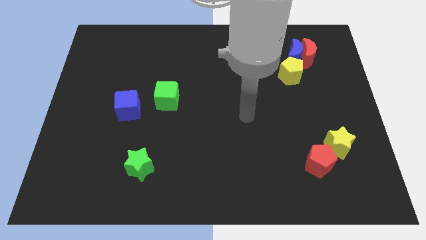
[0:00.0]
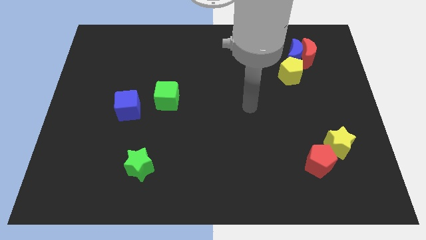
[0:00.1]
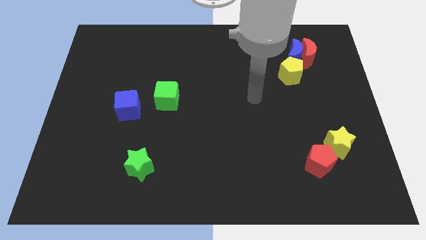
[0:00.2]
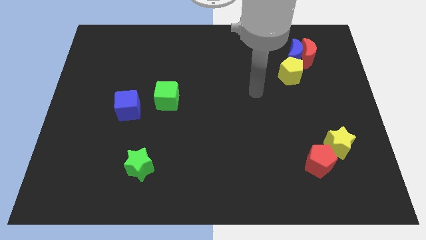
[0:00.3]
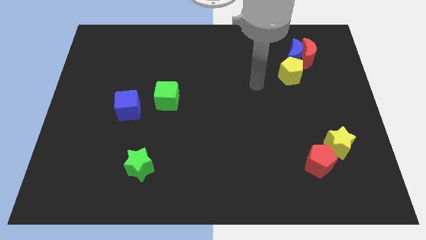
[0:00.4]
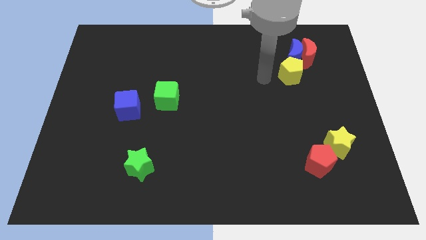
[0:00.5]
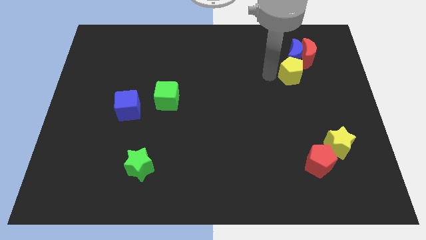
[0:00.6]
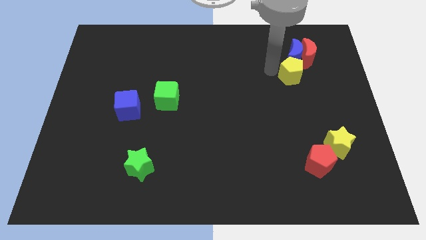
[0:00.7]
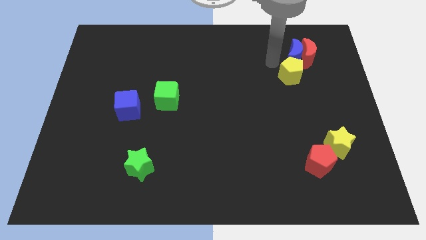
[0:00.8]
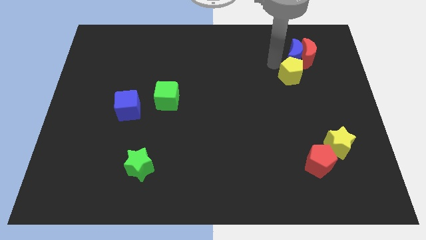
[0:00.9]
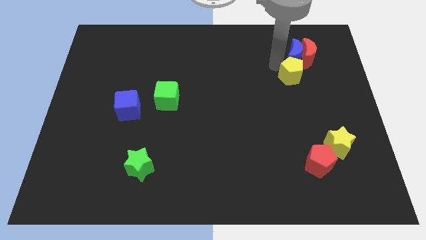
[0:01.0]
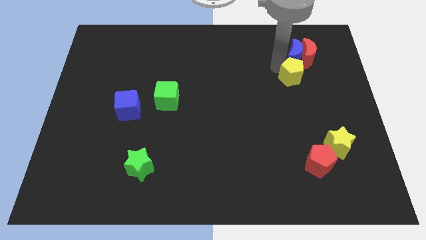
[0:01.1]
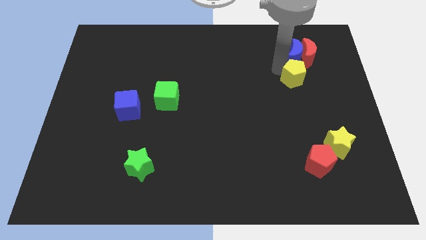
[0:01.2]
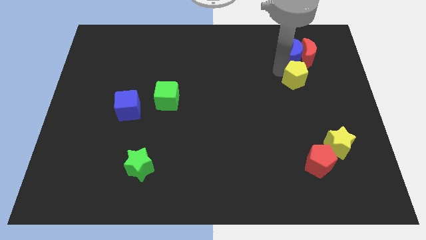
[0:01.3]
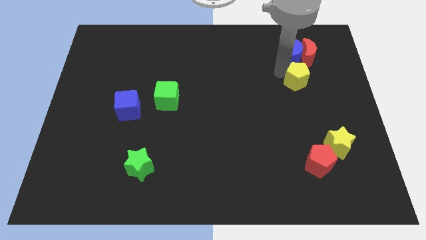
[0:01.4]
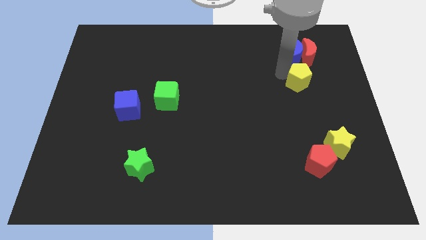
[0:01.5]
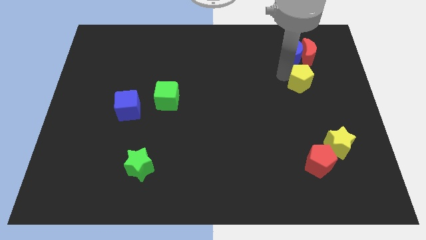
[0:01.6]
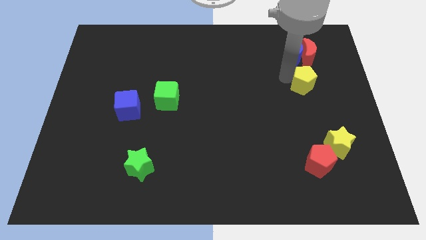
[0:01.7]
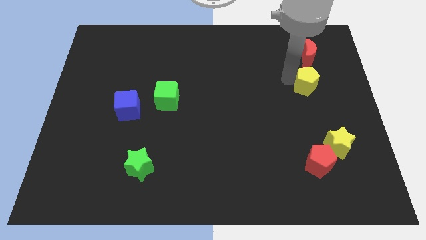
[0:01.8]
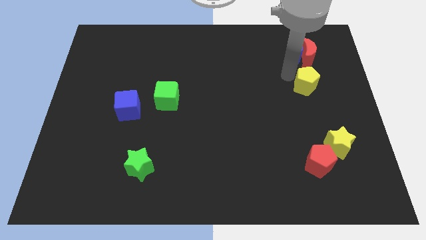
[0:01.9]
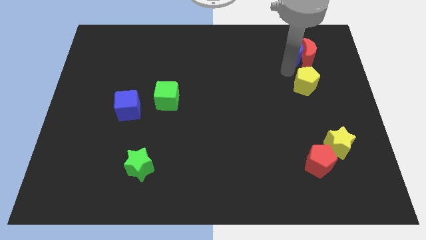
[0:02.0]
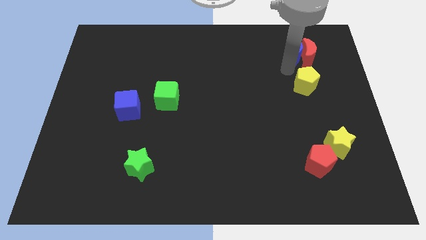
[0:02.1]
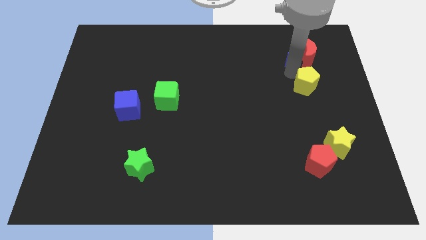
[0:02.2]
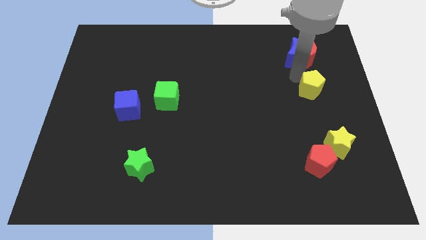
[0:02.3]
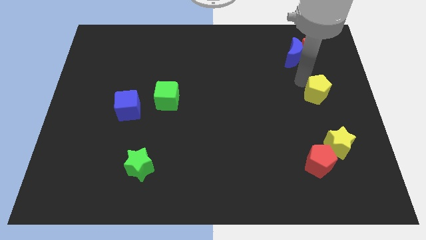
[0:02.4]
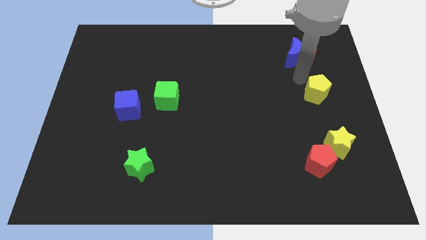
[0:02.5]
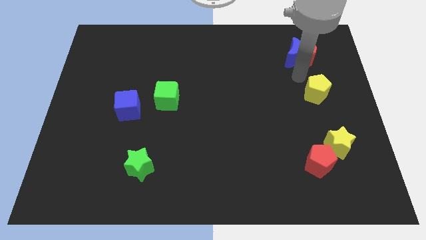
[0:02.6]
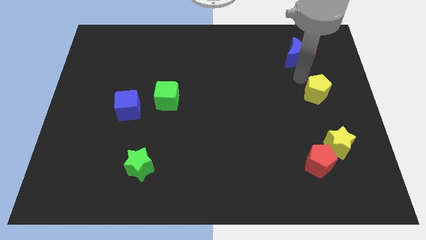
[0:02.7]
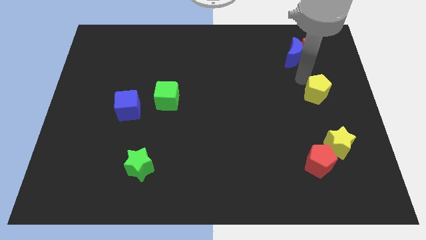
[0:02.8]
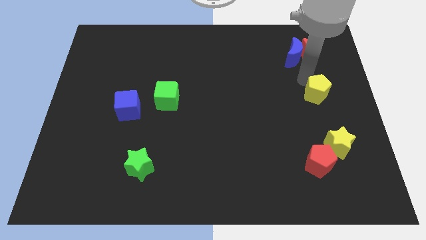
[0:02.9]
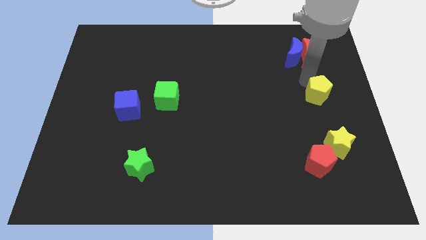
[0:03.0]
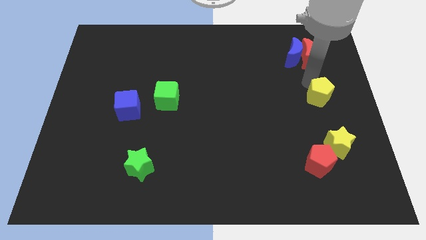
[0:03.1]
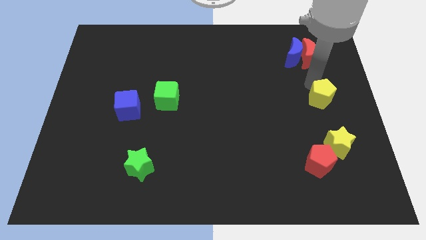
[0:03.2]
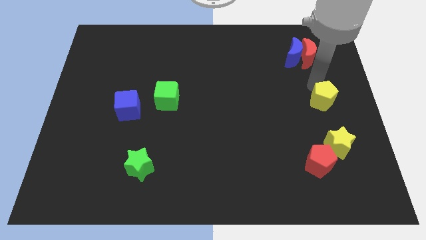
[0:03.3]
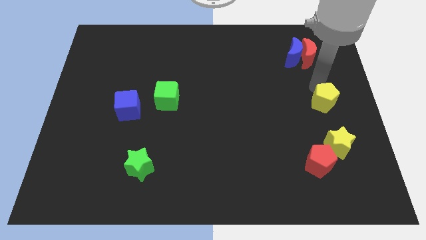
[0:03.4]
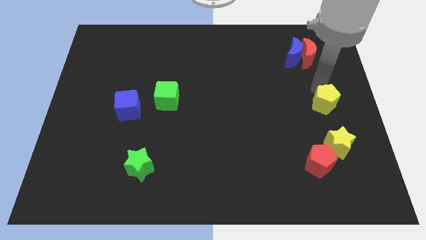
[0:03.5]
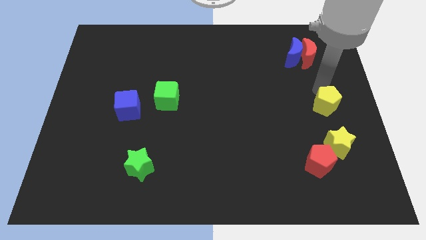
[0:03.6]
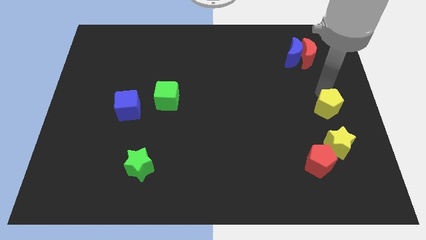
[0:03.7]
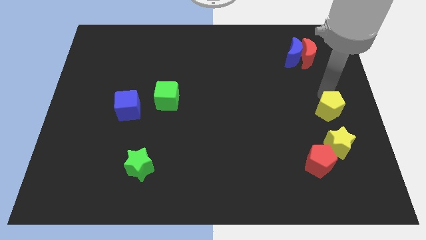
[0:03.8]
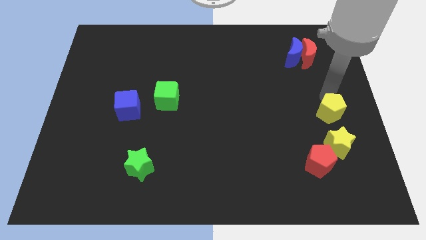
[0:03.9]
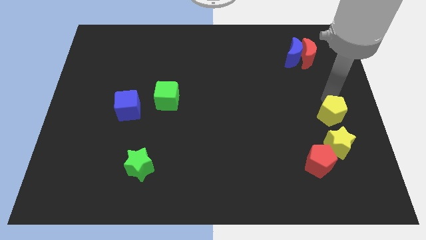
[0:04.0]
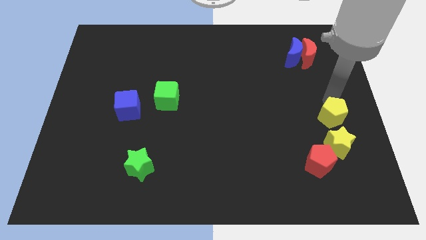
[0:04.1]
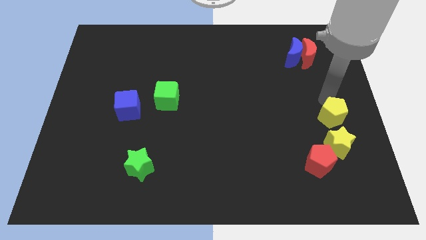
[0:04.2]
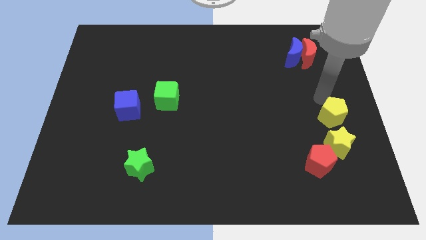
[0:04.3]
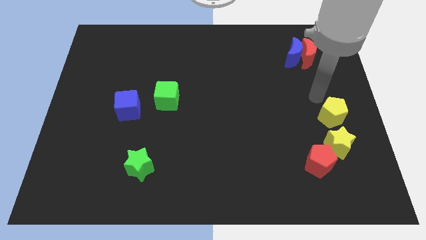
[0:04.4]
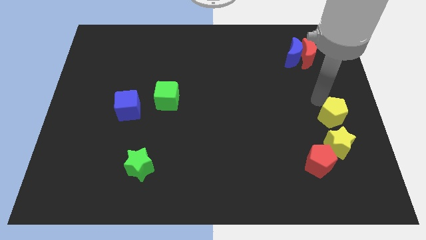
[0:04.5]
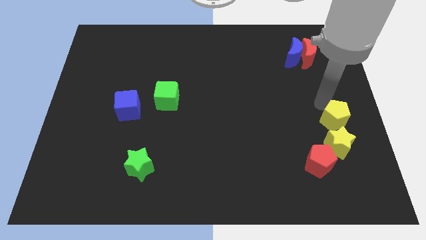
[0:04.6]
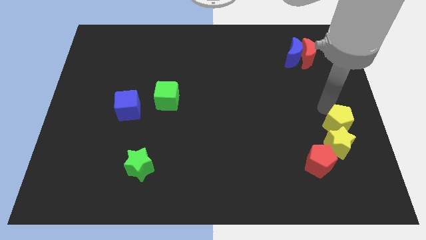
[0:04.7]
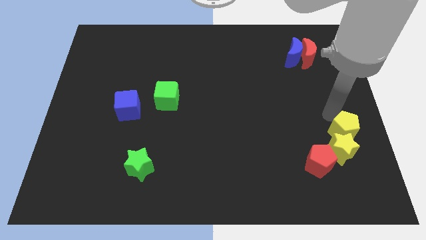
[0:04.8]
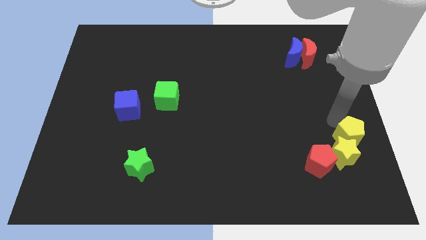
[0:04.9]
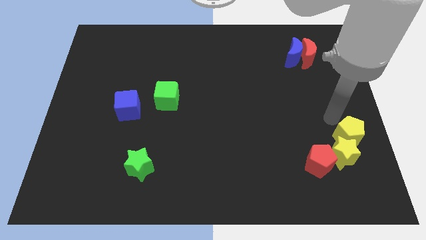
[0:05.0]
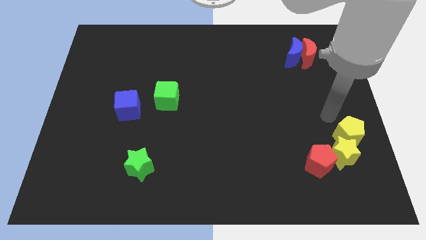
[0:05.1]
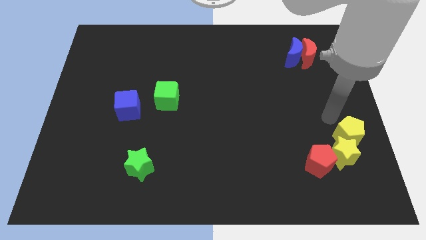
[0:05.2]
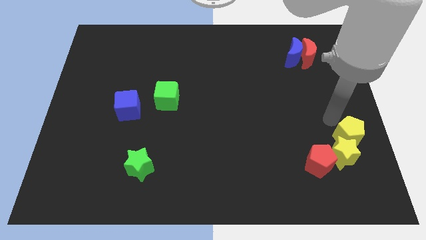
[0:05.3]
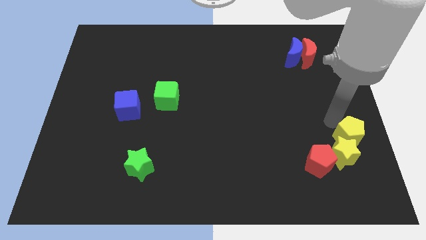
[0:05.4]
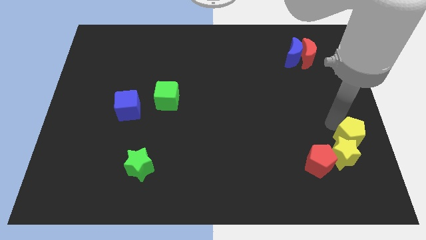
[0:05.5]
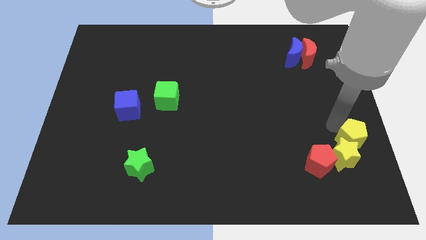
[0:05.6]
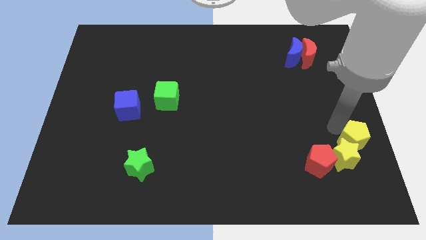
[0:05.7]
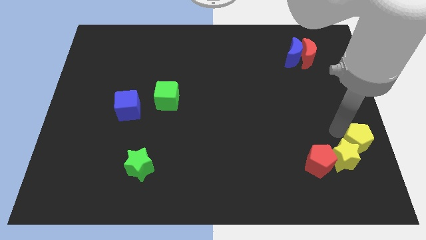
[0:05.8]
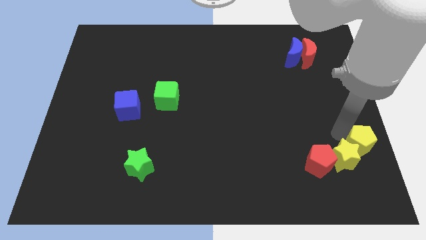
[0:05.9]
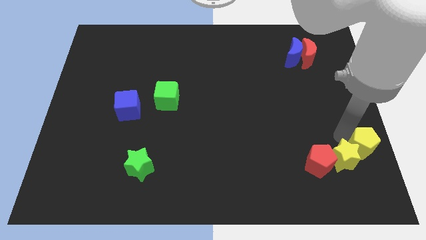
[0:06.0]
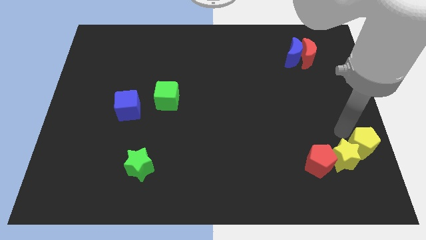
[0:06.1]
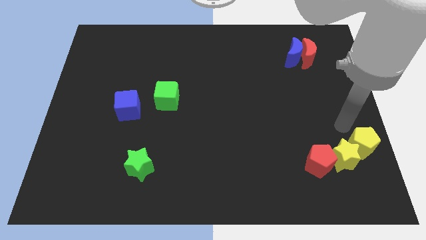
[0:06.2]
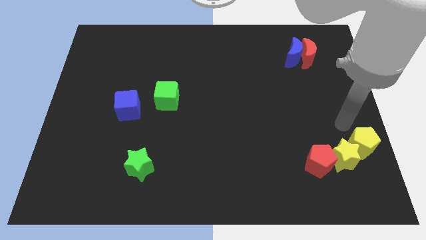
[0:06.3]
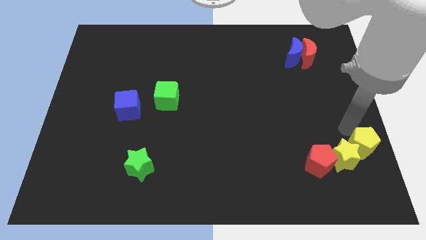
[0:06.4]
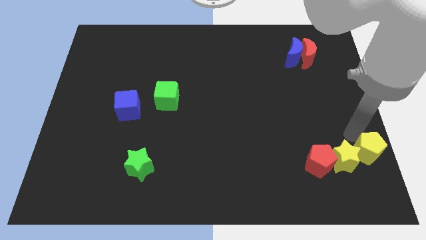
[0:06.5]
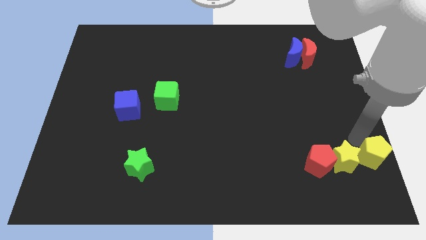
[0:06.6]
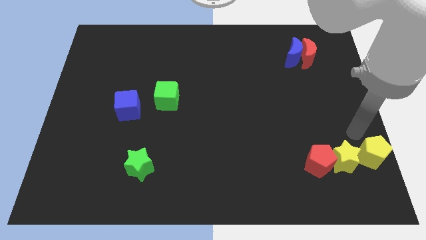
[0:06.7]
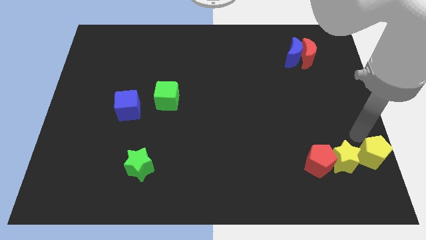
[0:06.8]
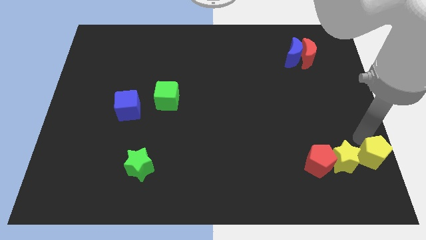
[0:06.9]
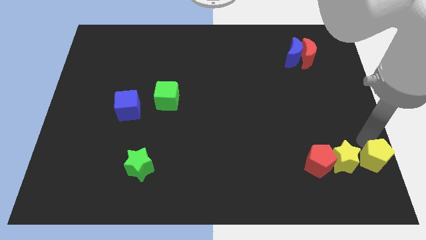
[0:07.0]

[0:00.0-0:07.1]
move the yellow pentagon to the bottom right of the board

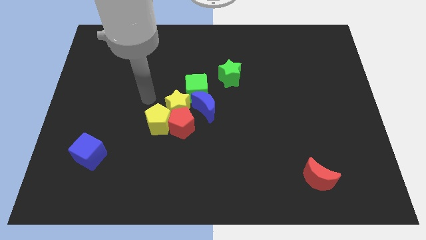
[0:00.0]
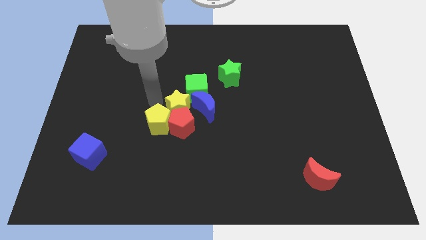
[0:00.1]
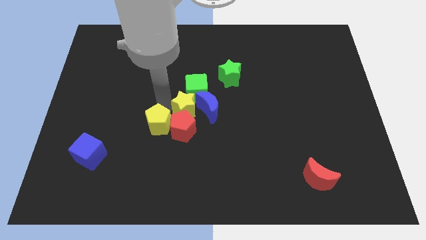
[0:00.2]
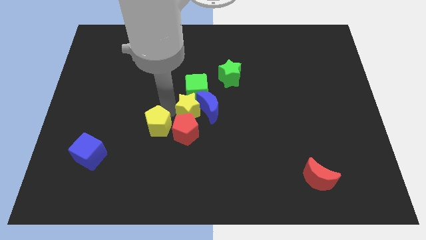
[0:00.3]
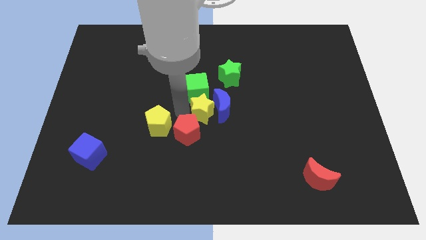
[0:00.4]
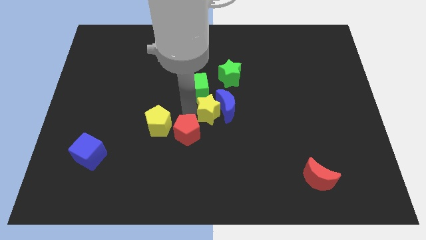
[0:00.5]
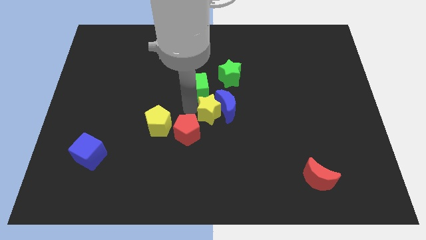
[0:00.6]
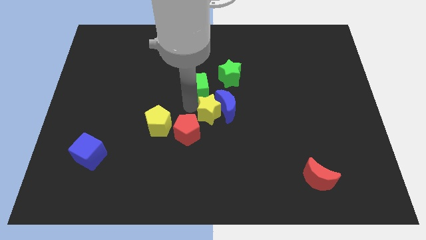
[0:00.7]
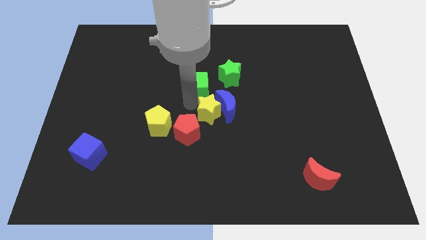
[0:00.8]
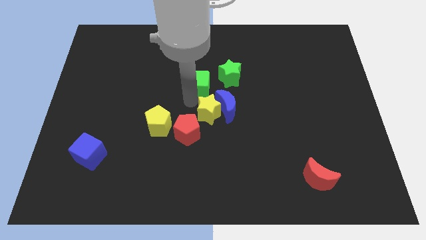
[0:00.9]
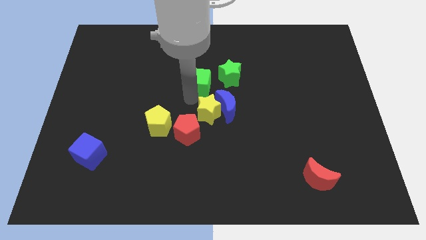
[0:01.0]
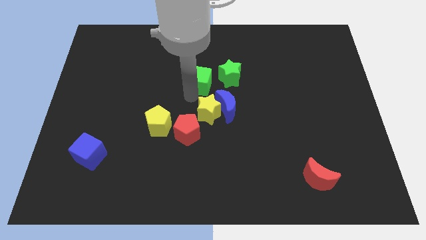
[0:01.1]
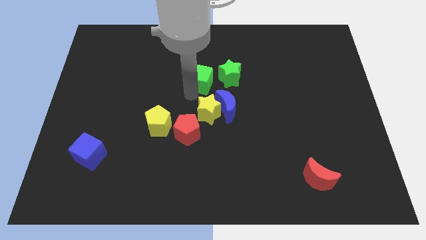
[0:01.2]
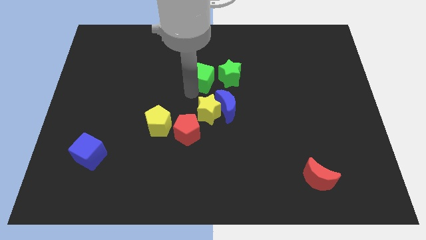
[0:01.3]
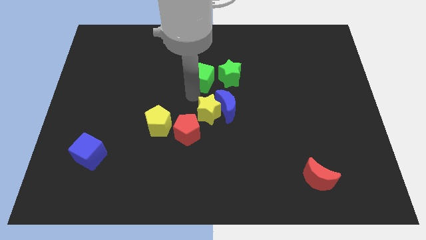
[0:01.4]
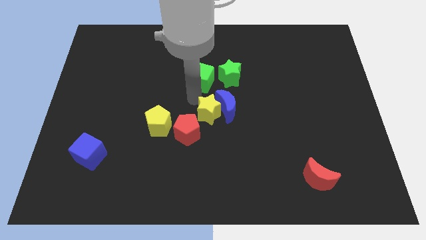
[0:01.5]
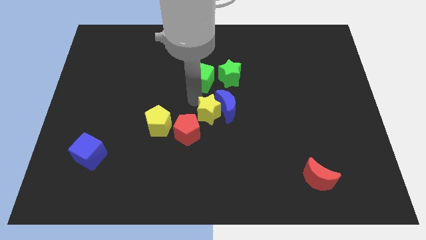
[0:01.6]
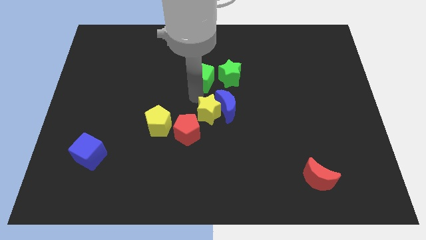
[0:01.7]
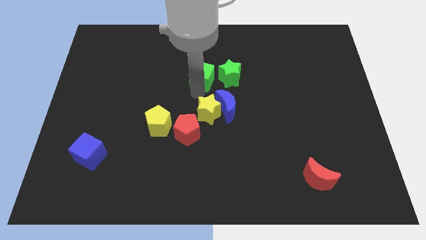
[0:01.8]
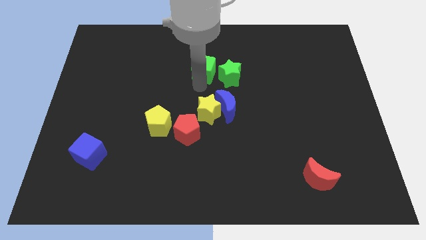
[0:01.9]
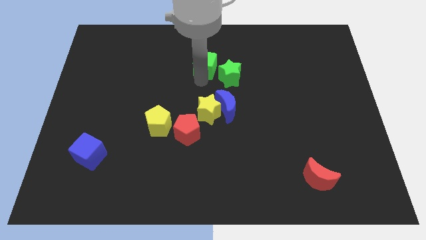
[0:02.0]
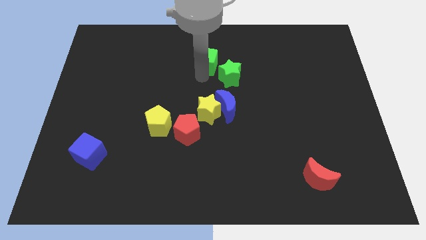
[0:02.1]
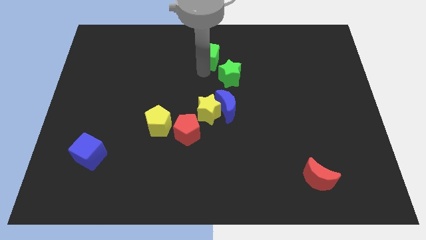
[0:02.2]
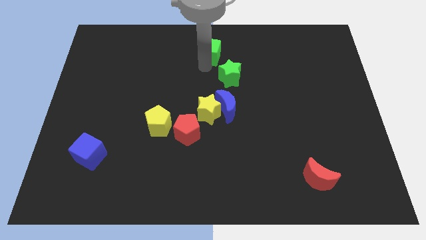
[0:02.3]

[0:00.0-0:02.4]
move the green cube to the top
